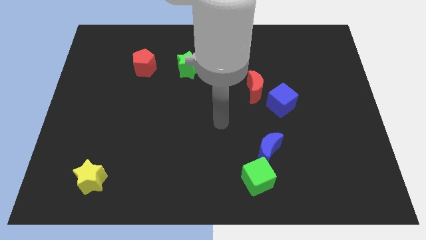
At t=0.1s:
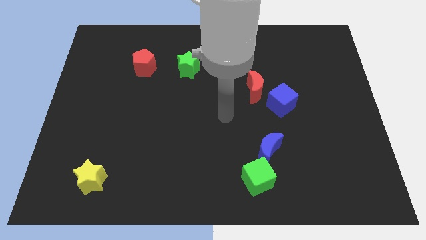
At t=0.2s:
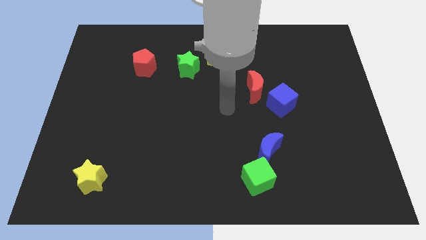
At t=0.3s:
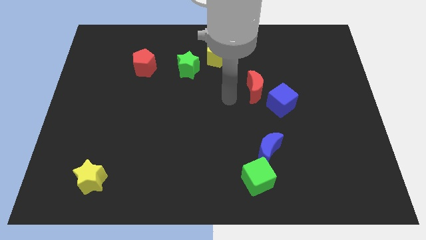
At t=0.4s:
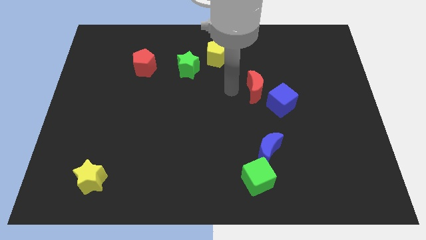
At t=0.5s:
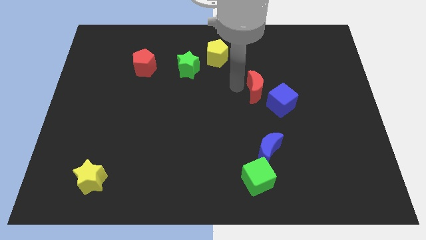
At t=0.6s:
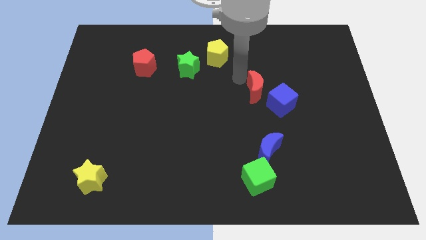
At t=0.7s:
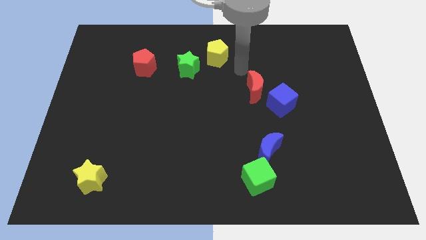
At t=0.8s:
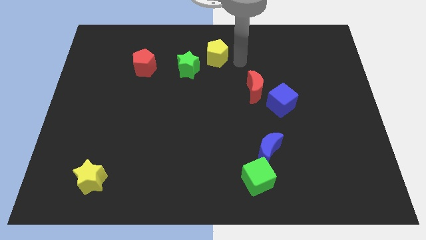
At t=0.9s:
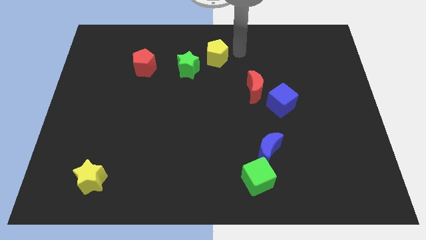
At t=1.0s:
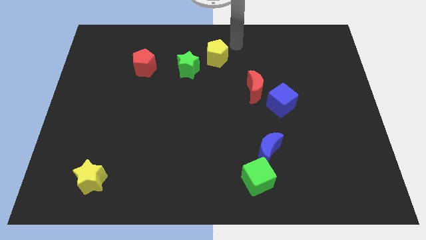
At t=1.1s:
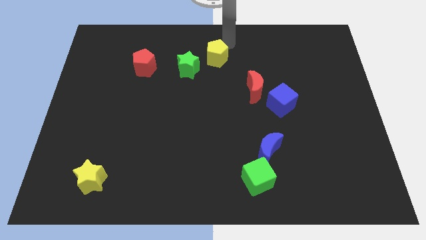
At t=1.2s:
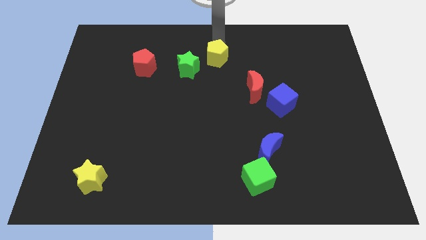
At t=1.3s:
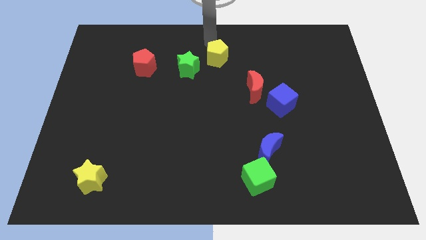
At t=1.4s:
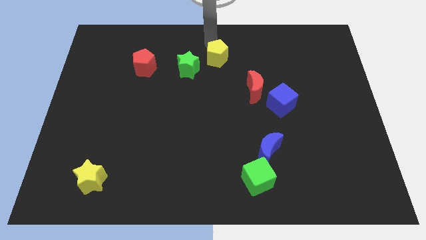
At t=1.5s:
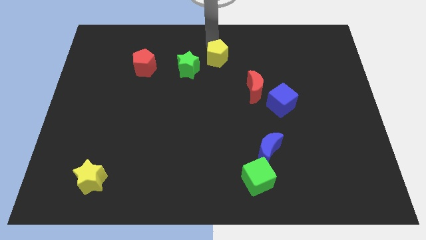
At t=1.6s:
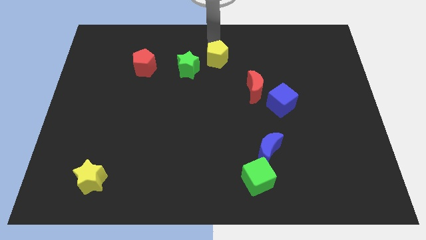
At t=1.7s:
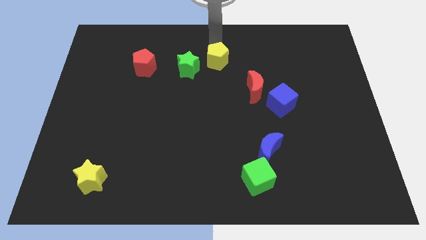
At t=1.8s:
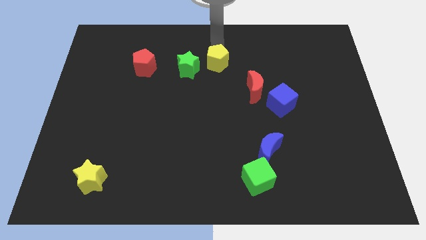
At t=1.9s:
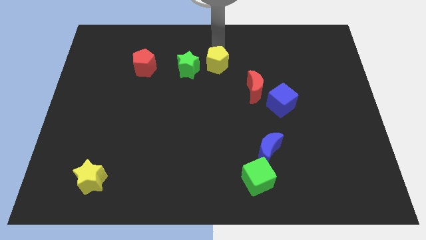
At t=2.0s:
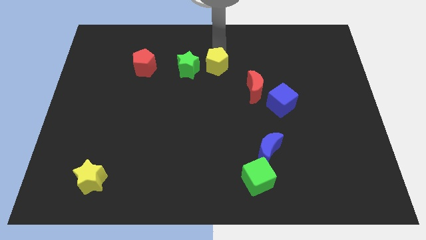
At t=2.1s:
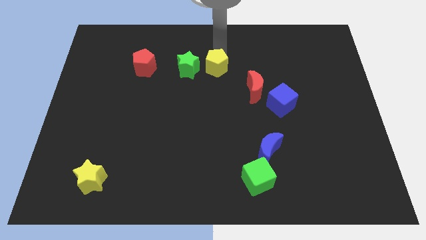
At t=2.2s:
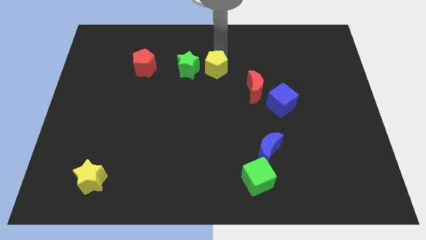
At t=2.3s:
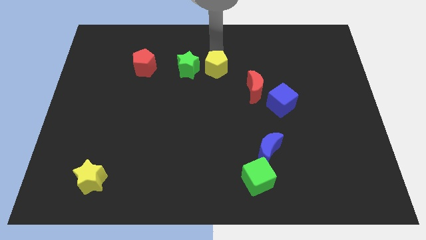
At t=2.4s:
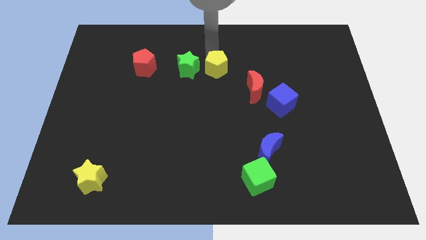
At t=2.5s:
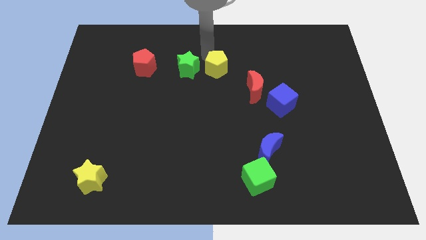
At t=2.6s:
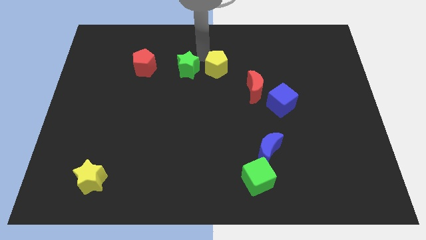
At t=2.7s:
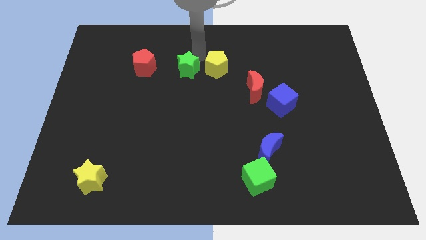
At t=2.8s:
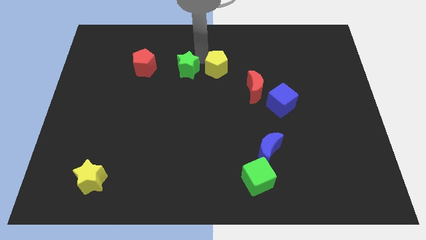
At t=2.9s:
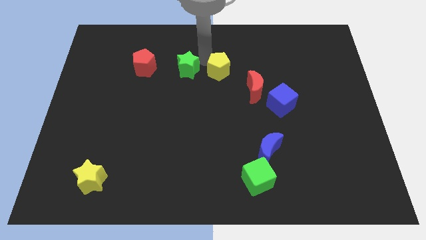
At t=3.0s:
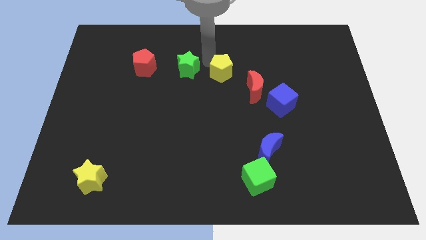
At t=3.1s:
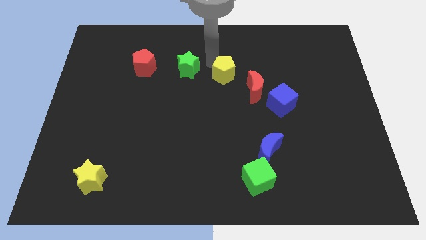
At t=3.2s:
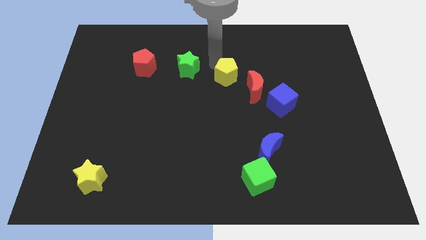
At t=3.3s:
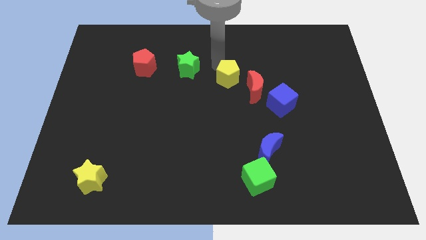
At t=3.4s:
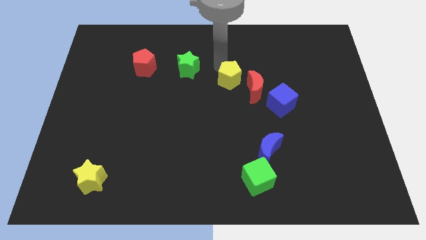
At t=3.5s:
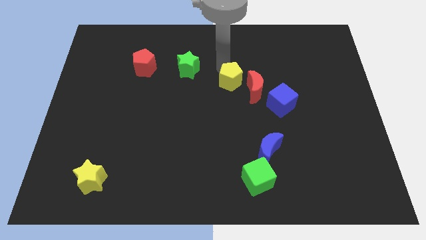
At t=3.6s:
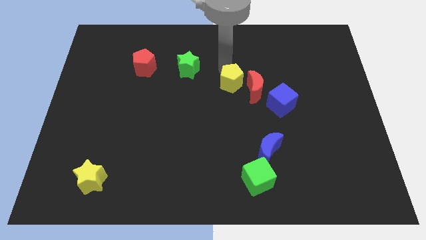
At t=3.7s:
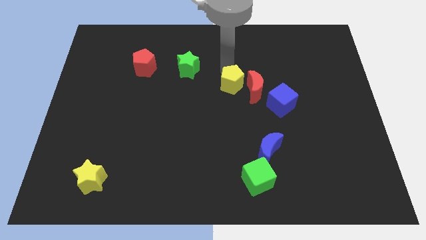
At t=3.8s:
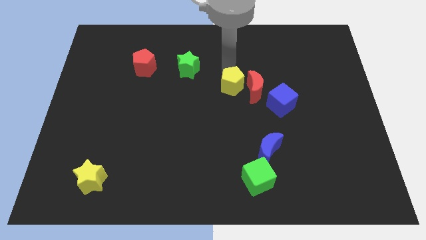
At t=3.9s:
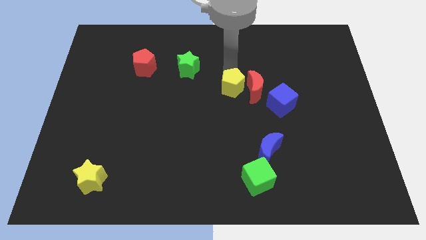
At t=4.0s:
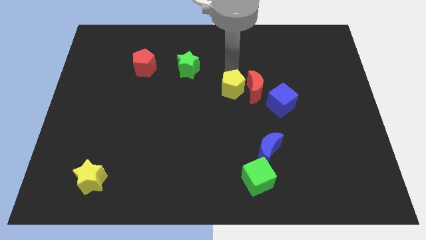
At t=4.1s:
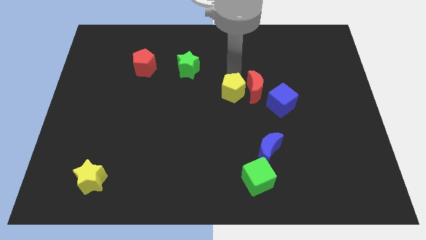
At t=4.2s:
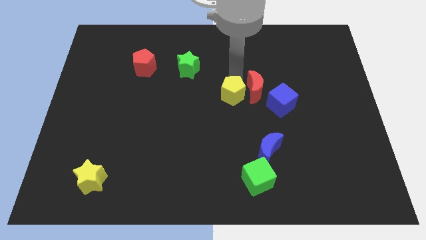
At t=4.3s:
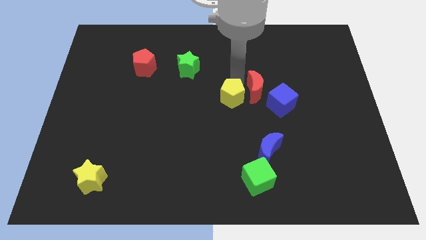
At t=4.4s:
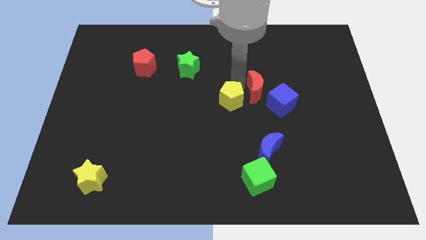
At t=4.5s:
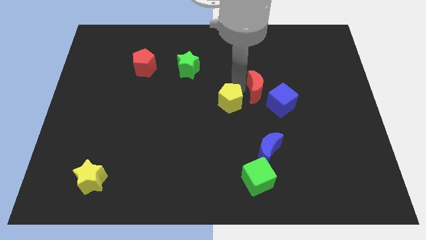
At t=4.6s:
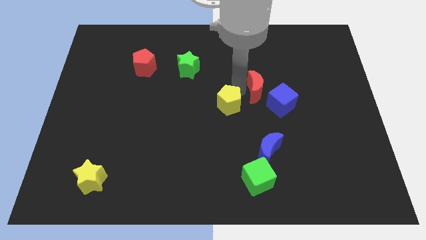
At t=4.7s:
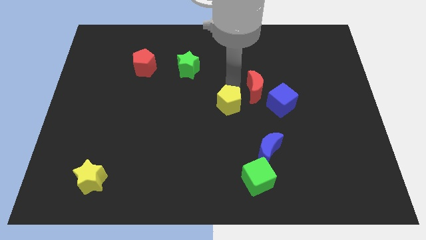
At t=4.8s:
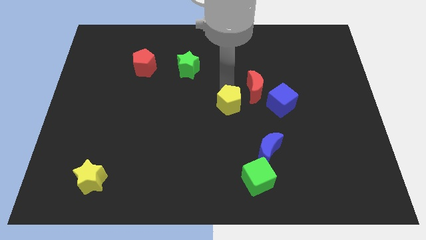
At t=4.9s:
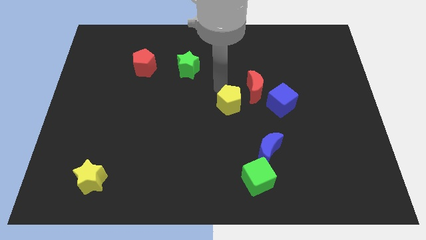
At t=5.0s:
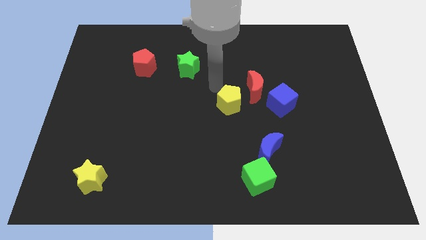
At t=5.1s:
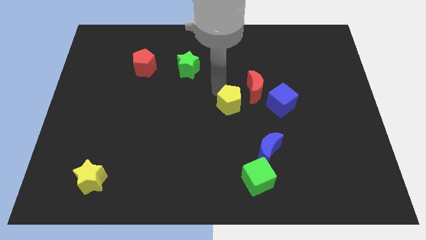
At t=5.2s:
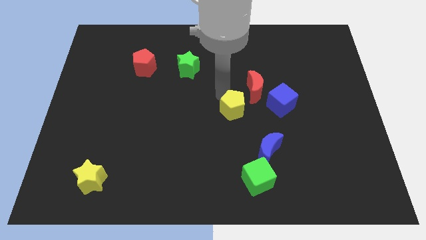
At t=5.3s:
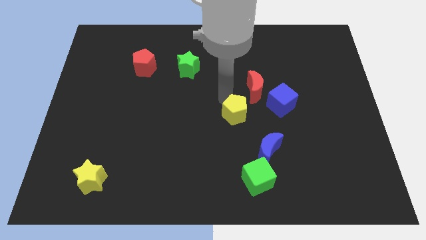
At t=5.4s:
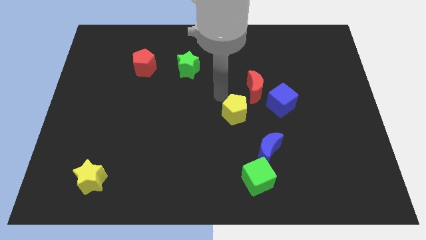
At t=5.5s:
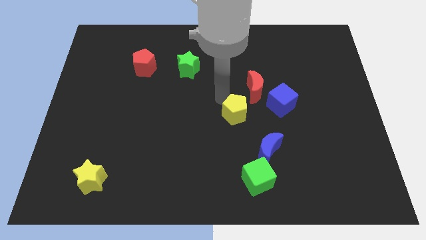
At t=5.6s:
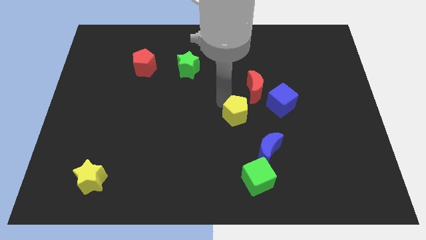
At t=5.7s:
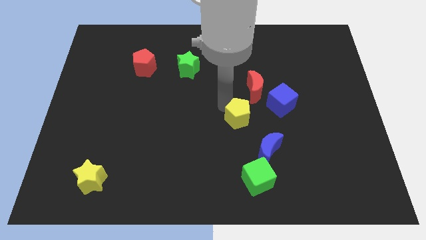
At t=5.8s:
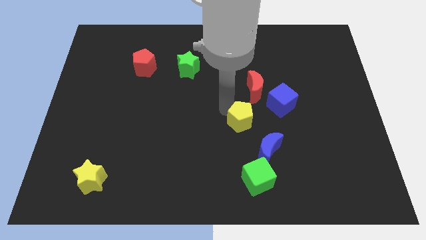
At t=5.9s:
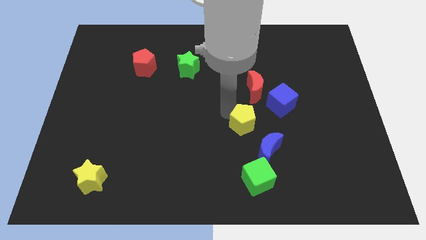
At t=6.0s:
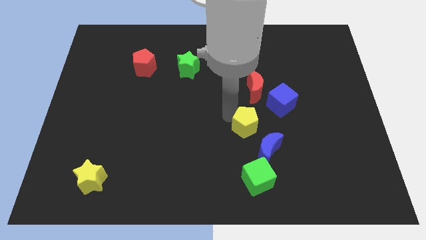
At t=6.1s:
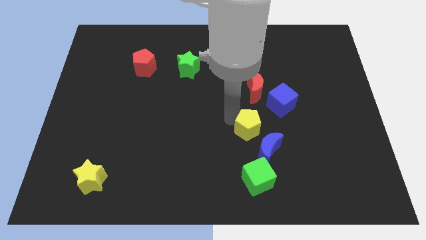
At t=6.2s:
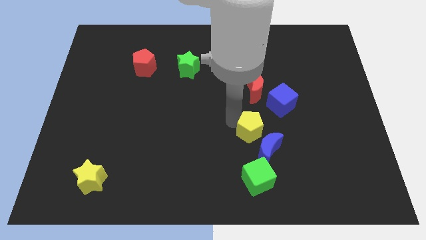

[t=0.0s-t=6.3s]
push the yellow pentagon close to the blue moon
